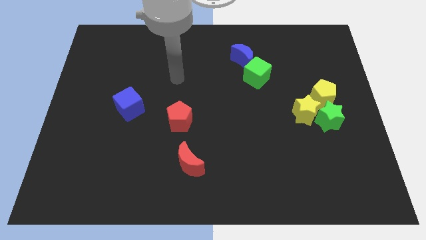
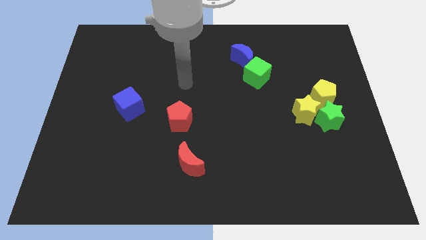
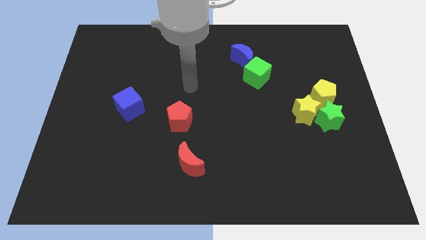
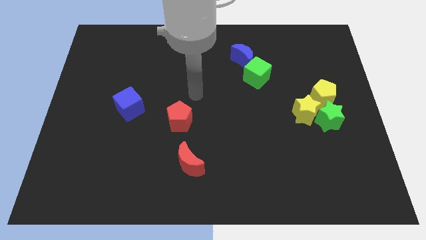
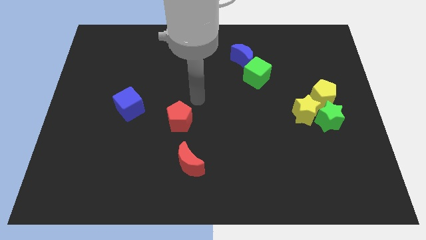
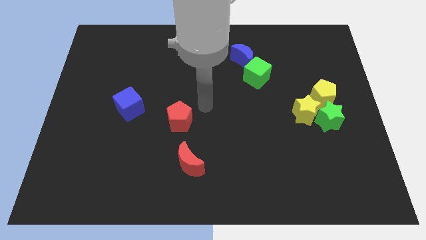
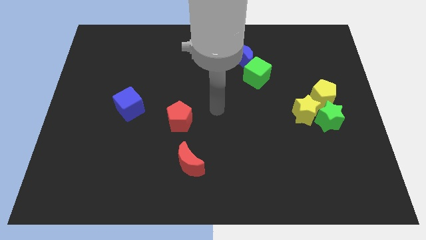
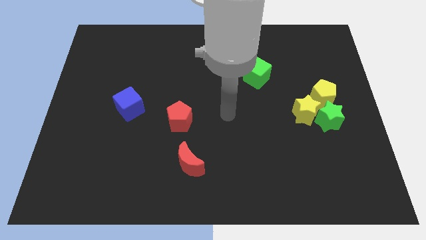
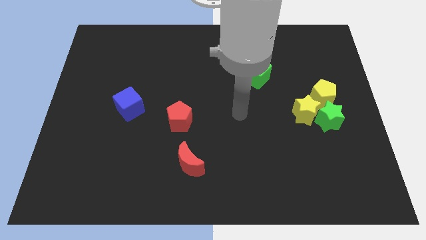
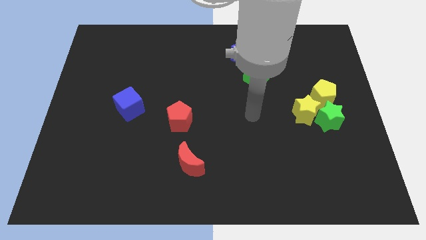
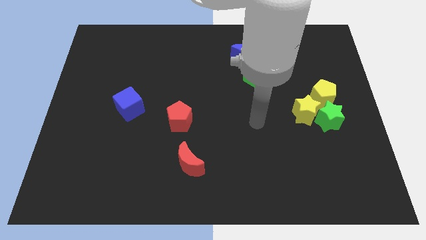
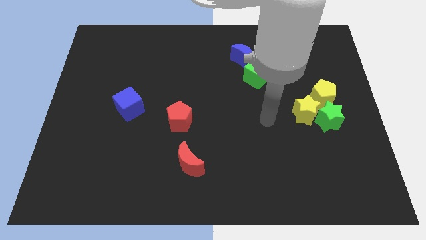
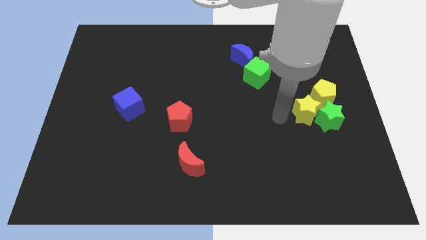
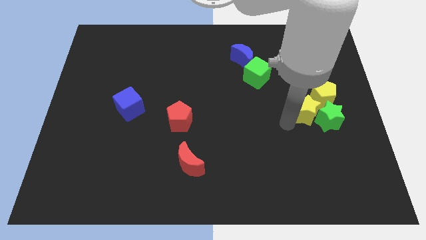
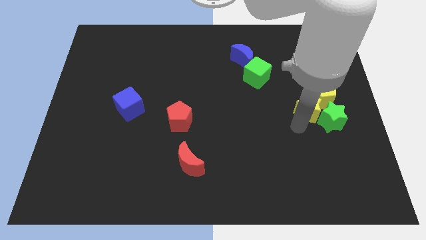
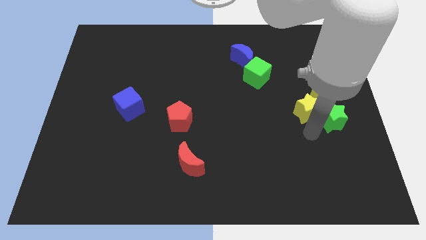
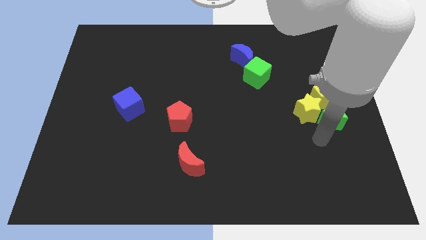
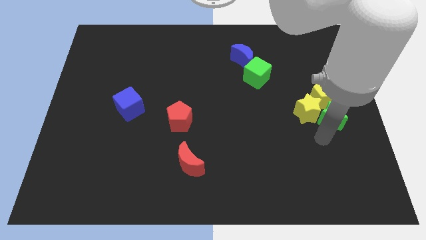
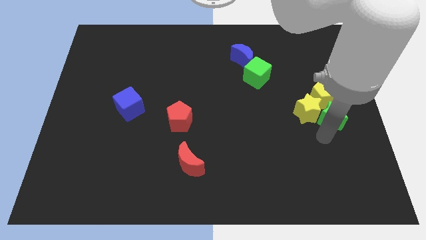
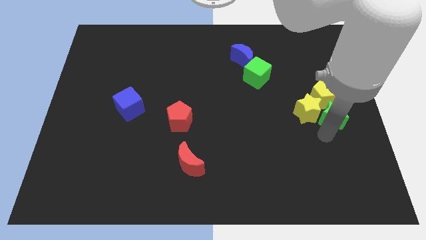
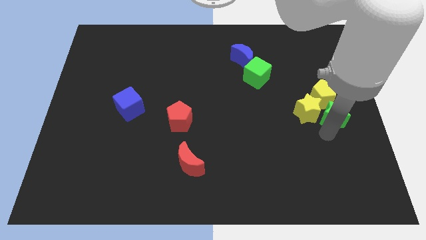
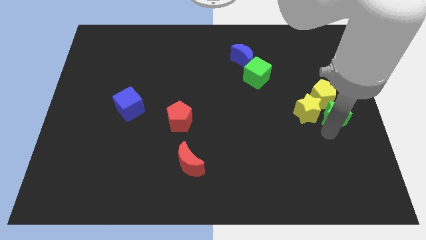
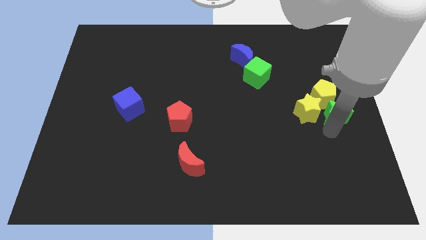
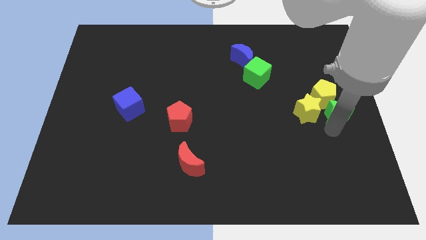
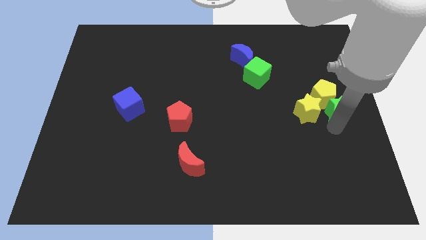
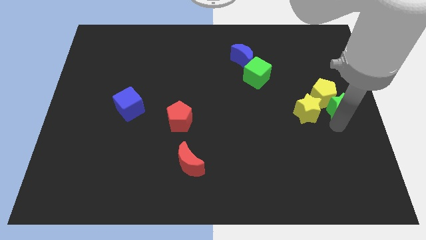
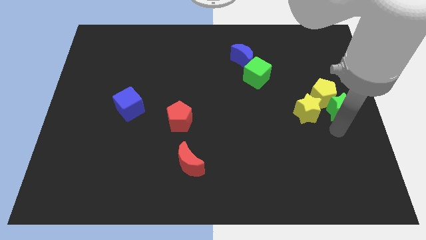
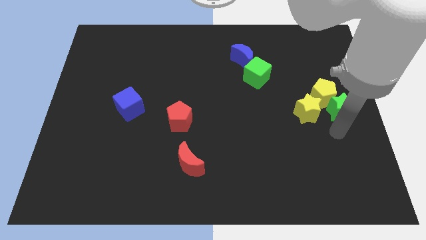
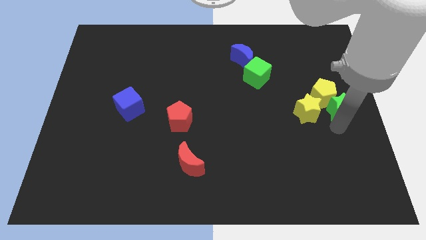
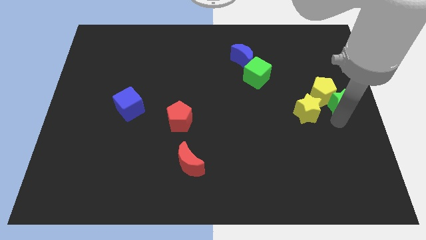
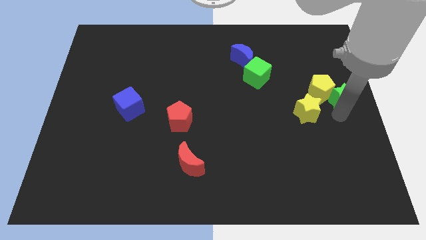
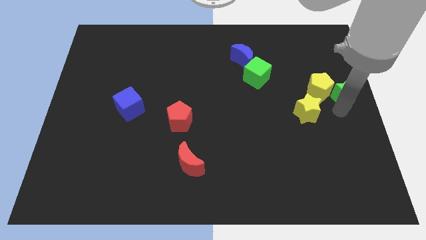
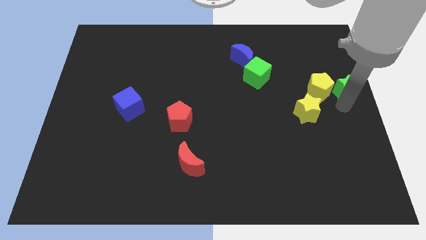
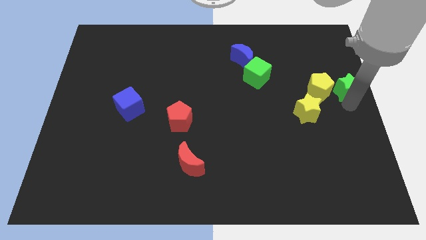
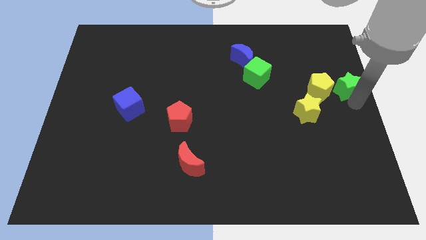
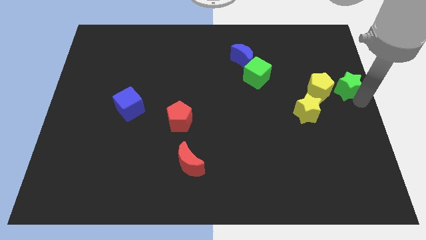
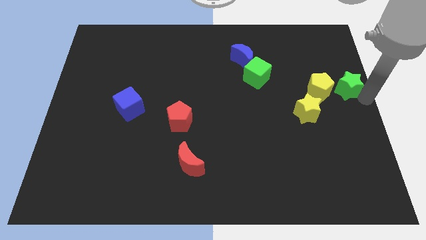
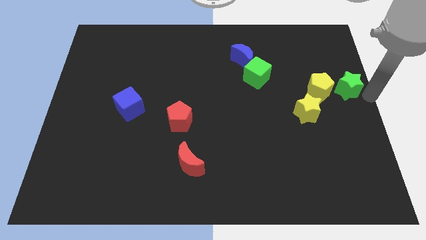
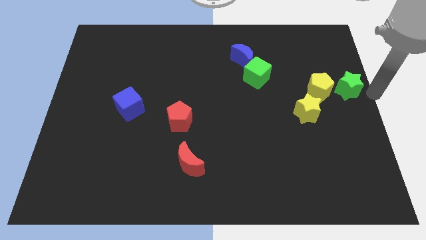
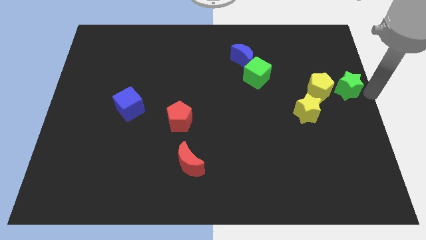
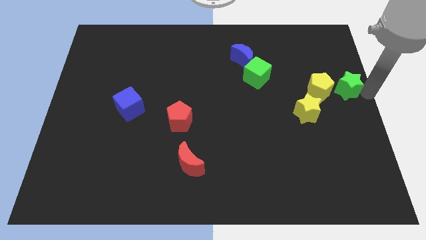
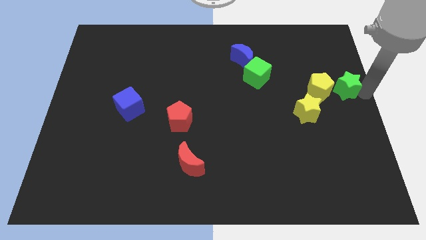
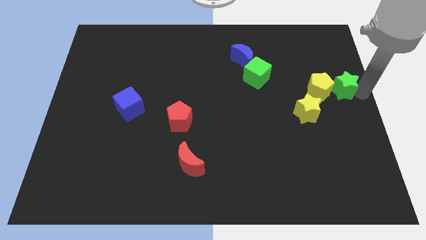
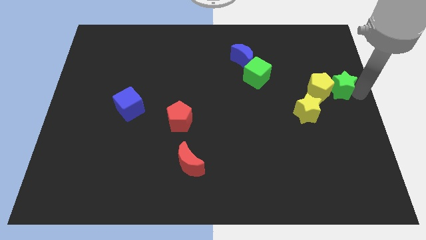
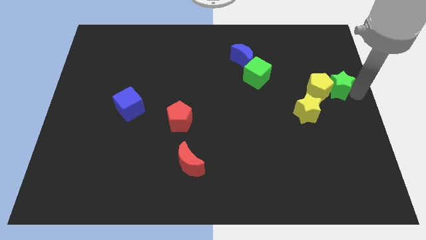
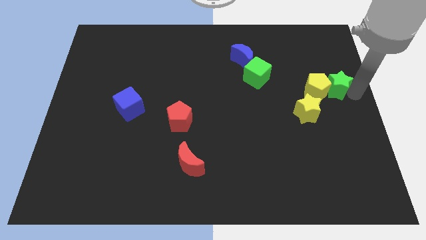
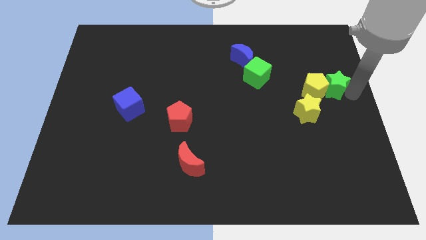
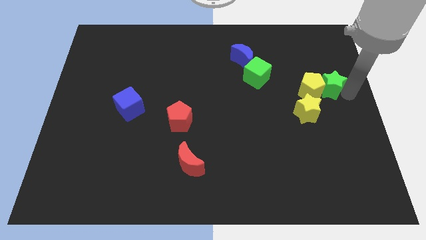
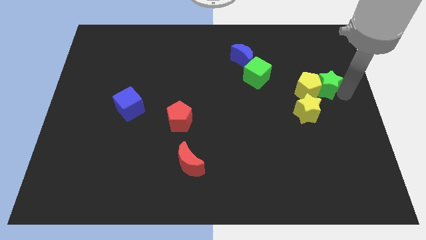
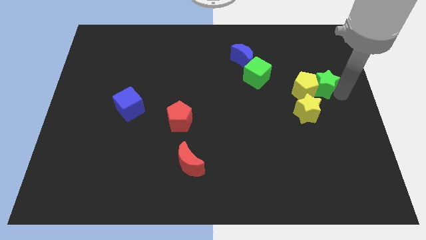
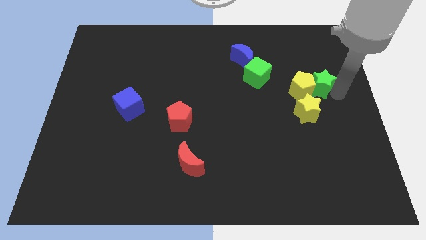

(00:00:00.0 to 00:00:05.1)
move the green star above the yellow star
